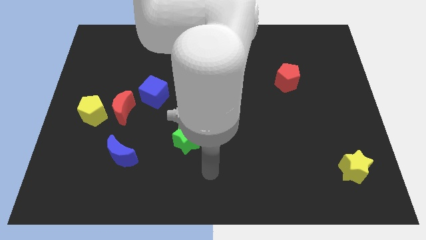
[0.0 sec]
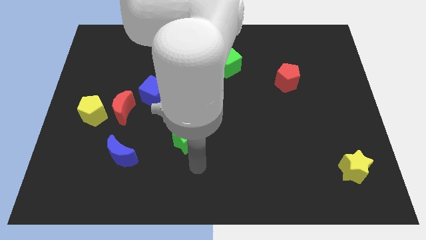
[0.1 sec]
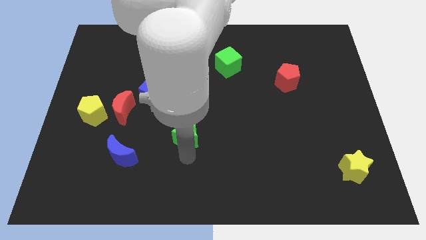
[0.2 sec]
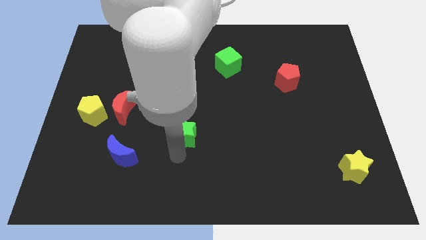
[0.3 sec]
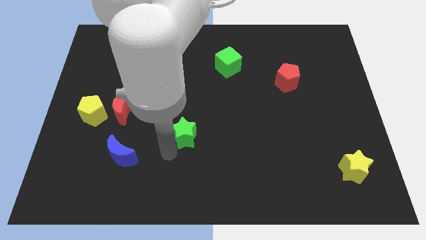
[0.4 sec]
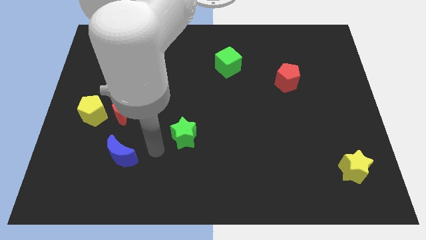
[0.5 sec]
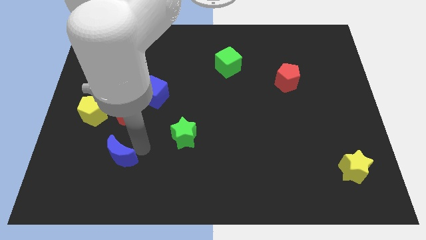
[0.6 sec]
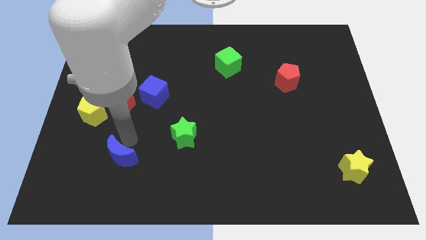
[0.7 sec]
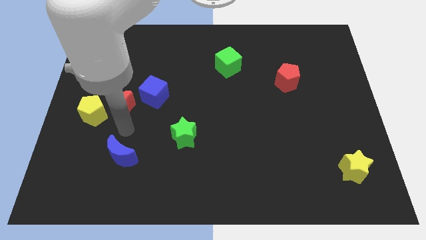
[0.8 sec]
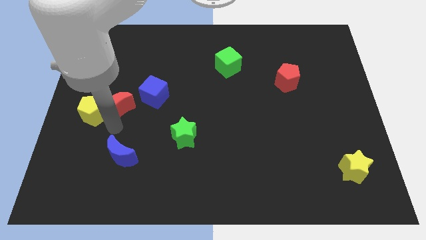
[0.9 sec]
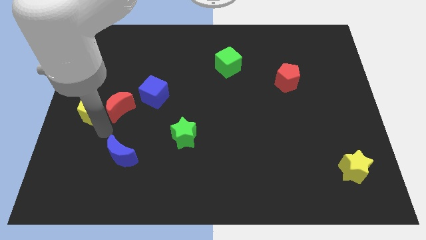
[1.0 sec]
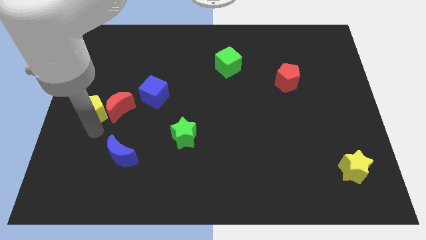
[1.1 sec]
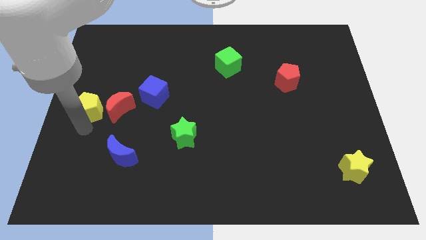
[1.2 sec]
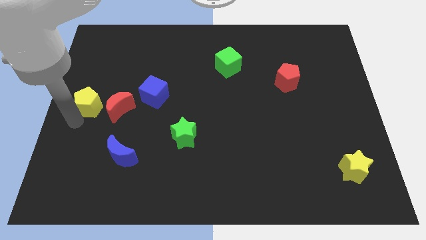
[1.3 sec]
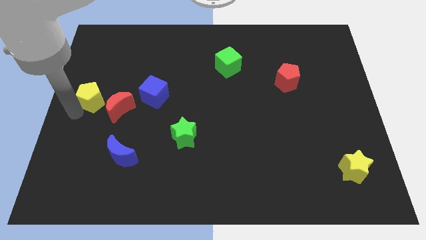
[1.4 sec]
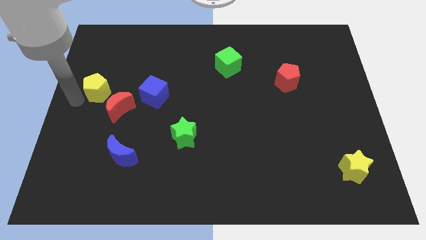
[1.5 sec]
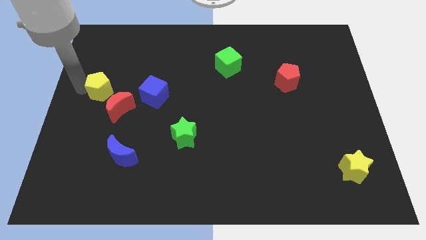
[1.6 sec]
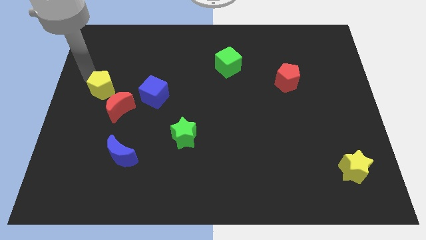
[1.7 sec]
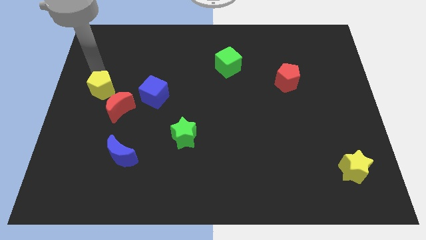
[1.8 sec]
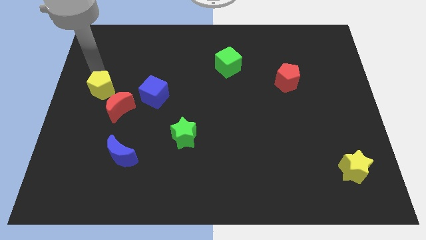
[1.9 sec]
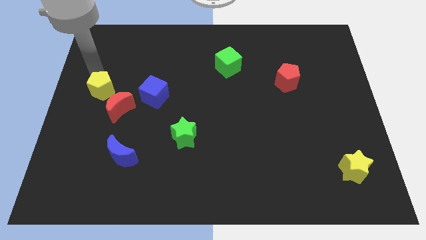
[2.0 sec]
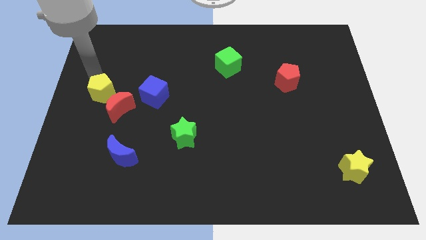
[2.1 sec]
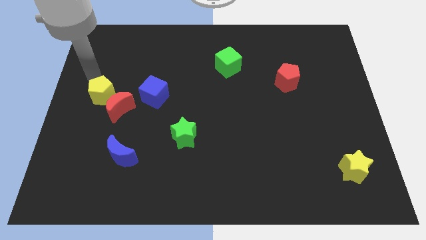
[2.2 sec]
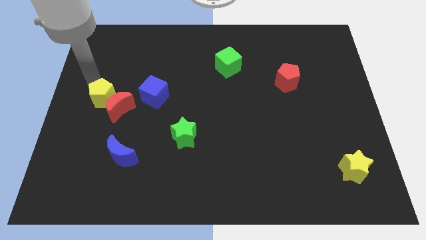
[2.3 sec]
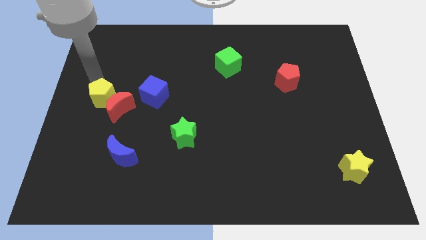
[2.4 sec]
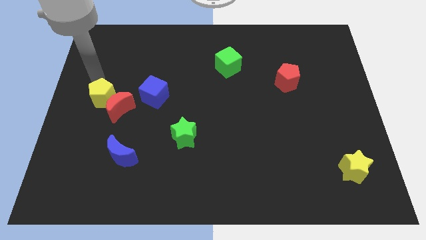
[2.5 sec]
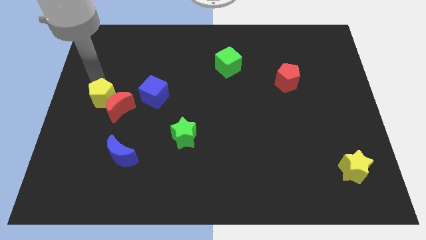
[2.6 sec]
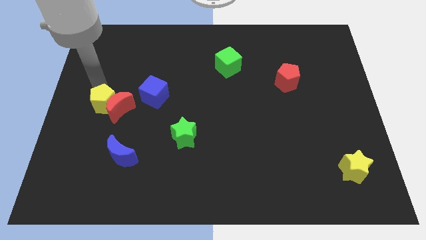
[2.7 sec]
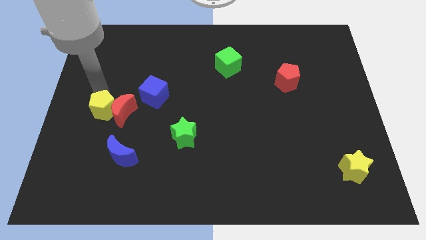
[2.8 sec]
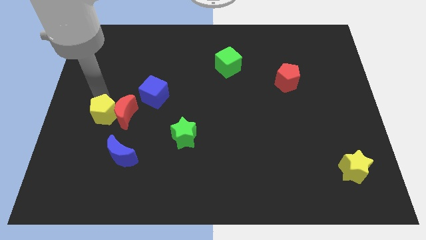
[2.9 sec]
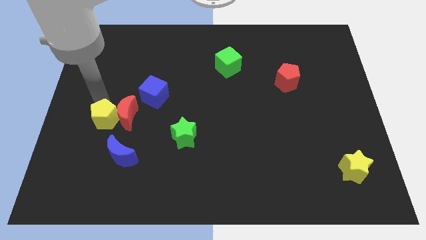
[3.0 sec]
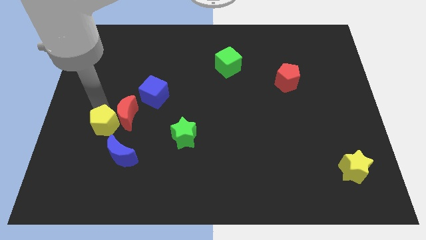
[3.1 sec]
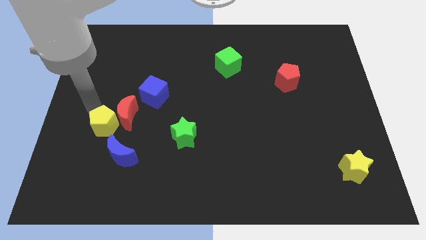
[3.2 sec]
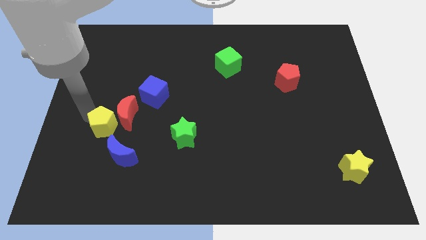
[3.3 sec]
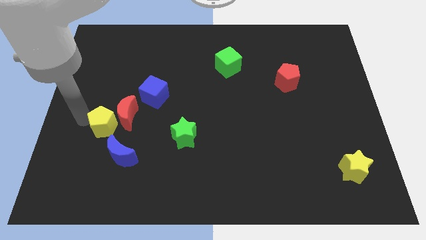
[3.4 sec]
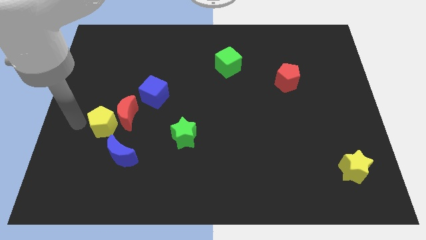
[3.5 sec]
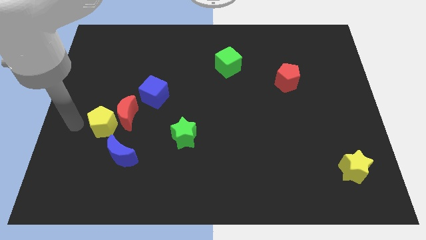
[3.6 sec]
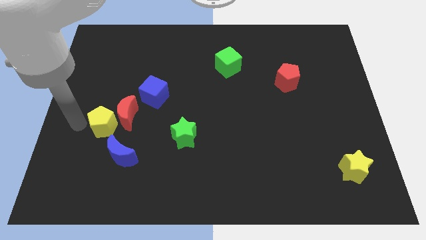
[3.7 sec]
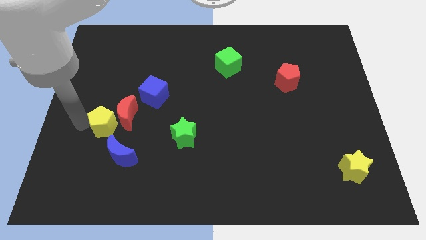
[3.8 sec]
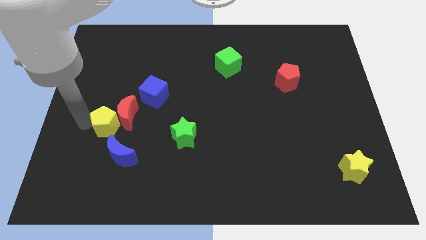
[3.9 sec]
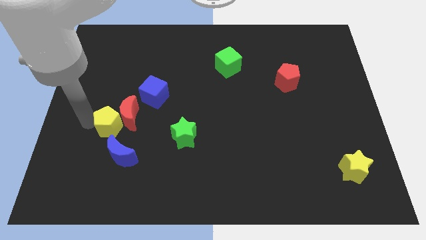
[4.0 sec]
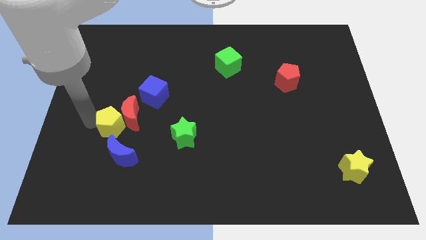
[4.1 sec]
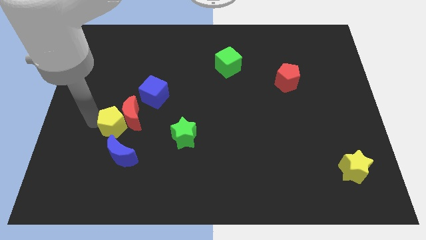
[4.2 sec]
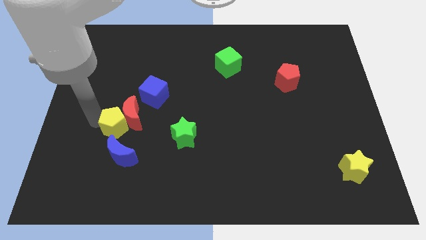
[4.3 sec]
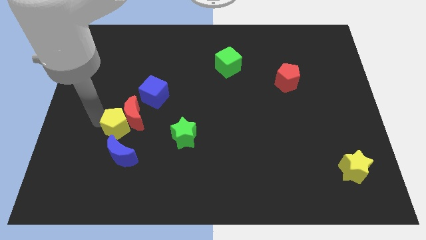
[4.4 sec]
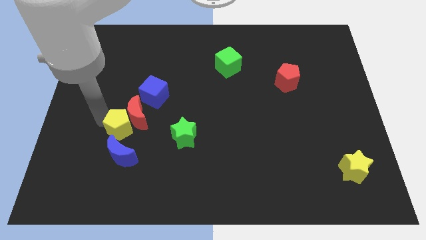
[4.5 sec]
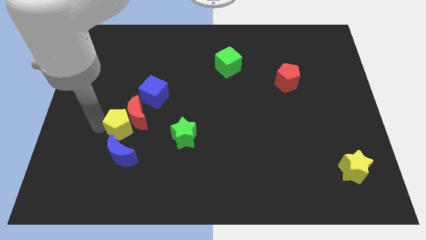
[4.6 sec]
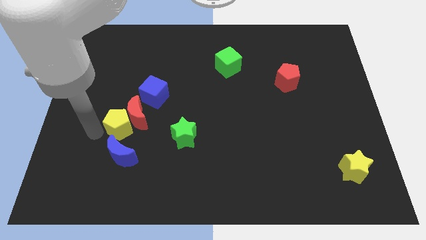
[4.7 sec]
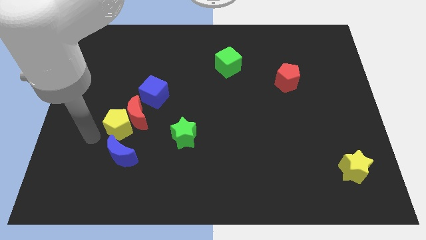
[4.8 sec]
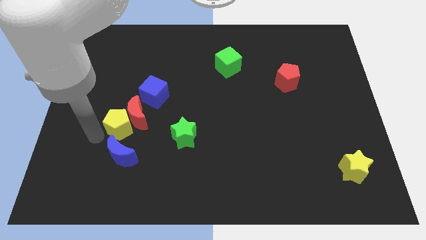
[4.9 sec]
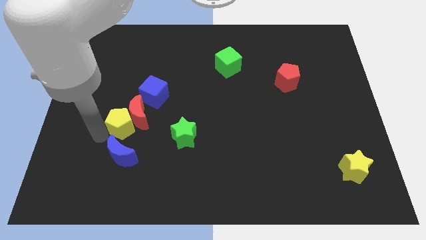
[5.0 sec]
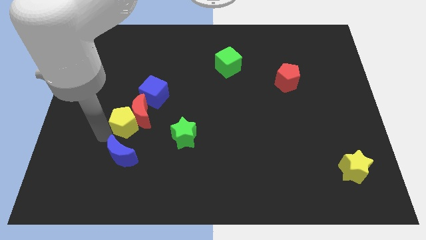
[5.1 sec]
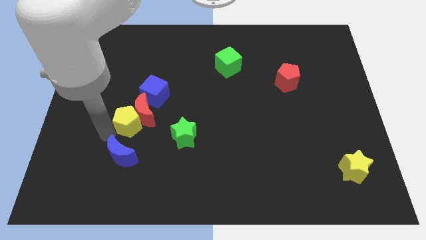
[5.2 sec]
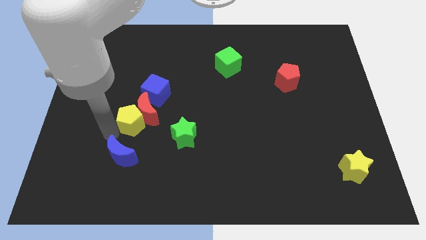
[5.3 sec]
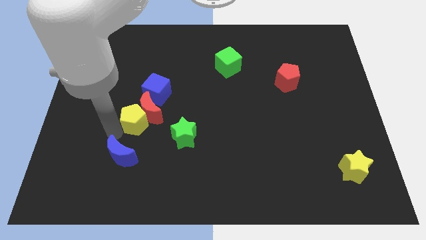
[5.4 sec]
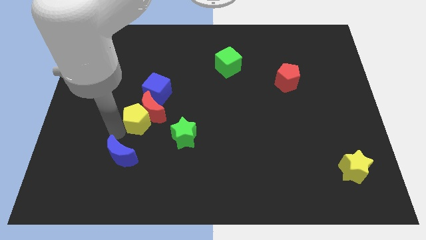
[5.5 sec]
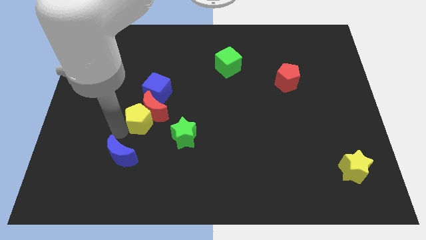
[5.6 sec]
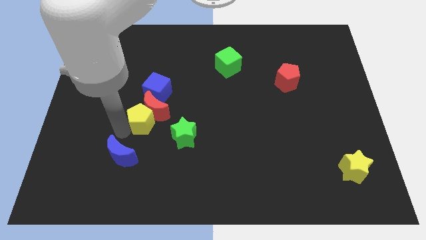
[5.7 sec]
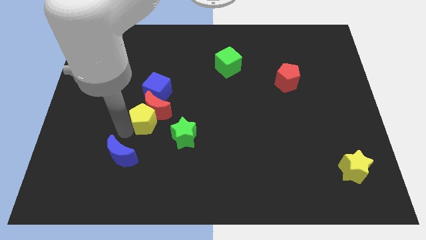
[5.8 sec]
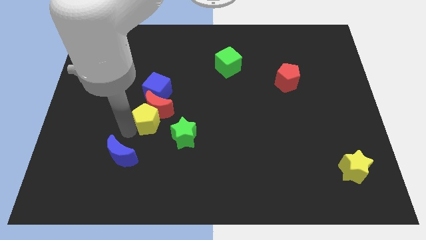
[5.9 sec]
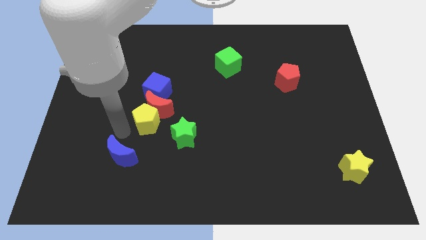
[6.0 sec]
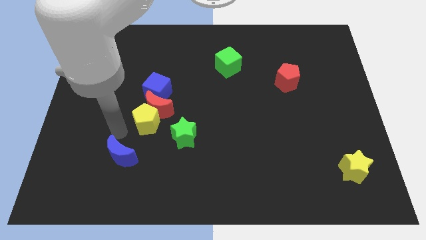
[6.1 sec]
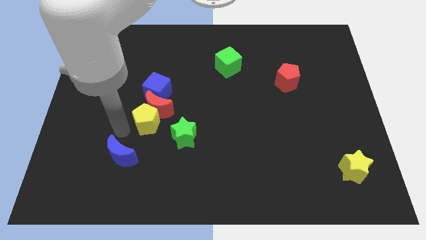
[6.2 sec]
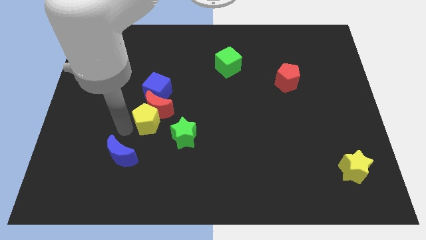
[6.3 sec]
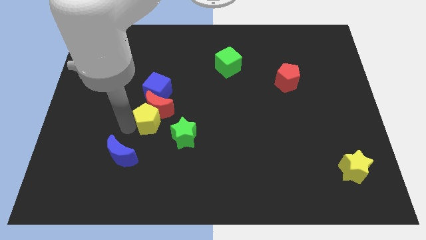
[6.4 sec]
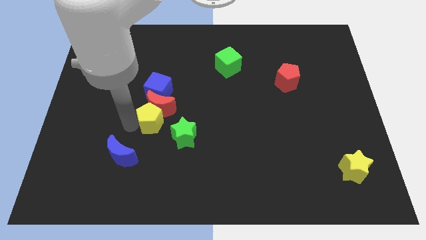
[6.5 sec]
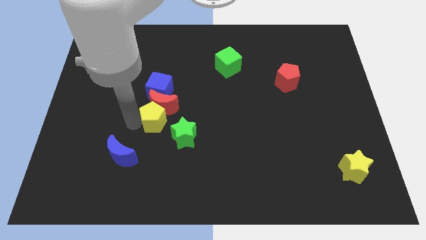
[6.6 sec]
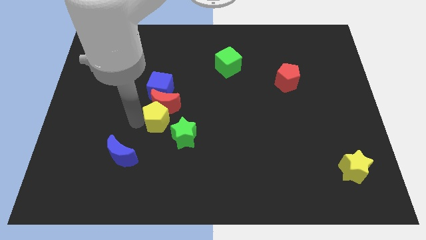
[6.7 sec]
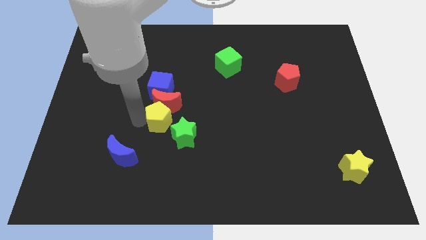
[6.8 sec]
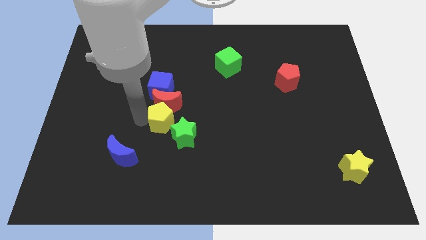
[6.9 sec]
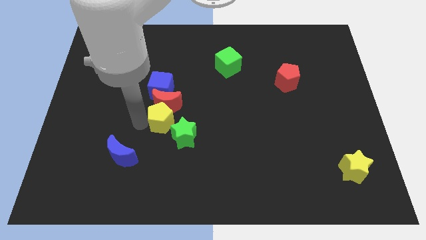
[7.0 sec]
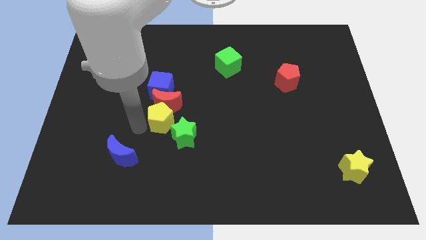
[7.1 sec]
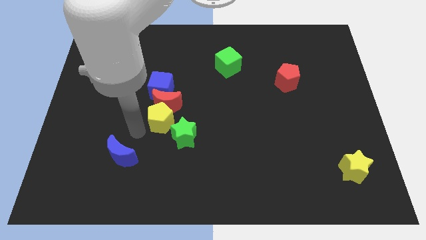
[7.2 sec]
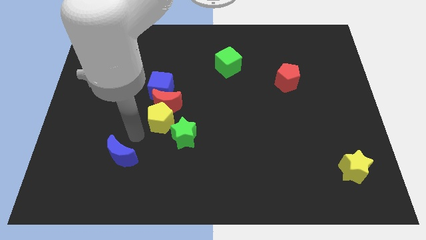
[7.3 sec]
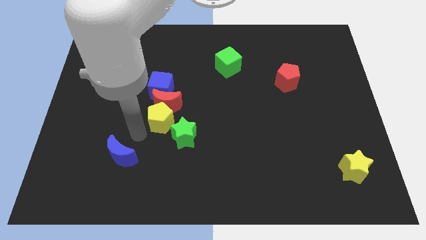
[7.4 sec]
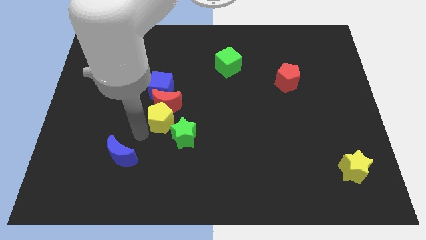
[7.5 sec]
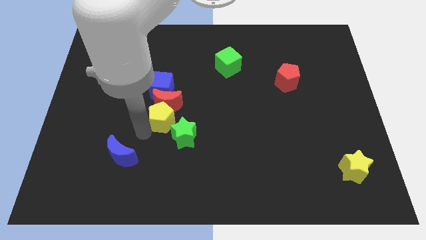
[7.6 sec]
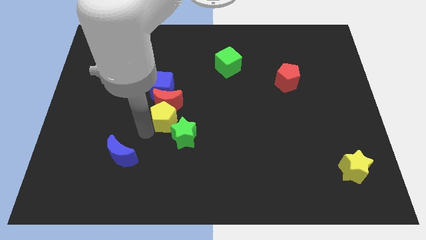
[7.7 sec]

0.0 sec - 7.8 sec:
push the yellow pentagon to the middle of the board
